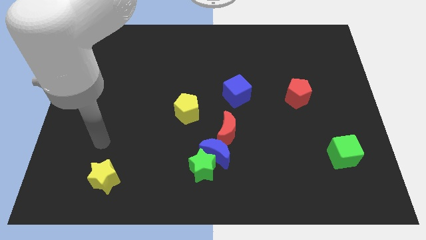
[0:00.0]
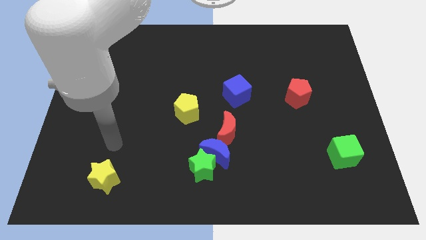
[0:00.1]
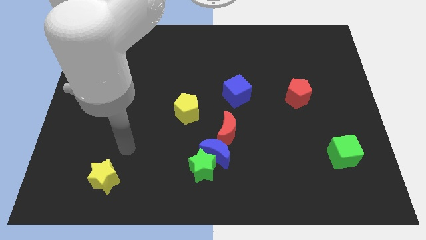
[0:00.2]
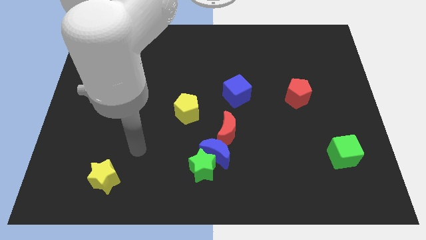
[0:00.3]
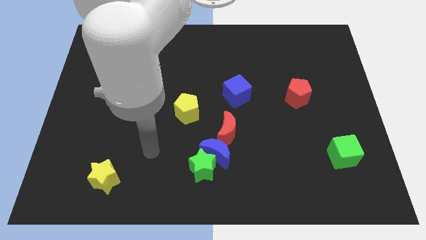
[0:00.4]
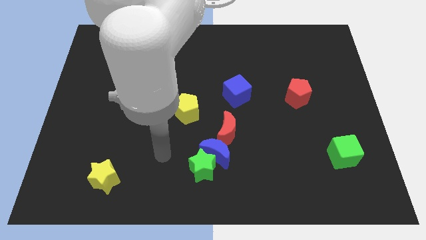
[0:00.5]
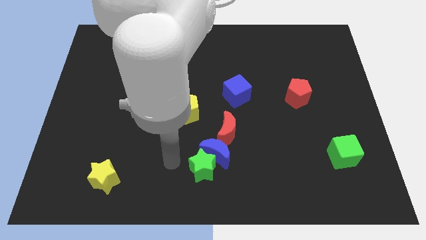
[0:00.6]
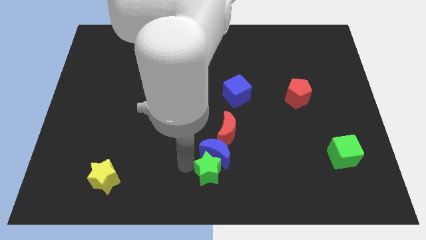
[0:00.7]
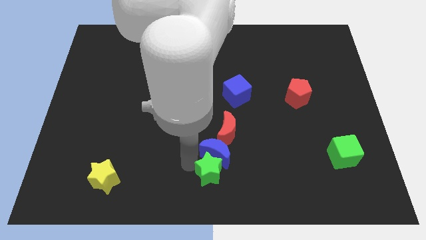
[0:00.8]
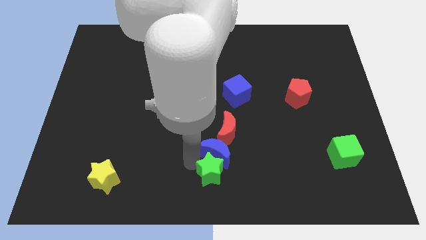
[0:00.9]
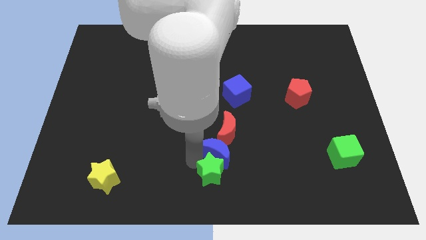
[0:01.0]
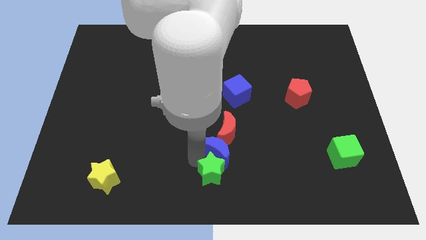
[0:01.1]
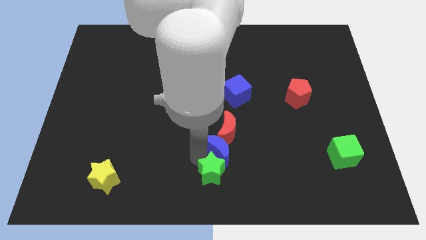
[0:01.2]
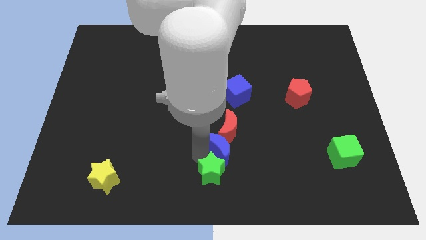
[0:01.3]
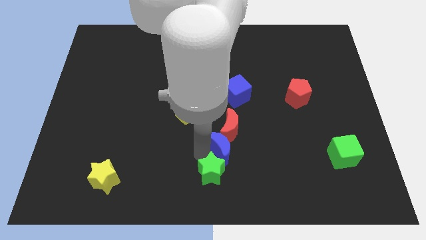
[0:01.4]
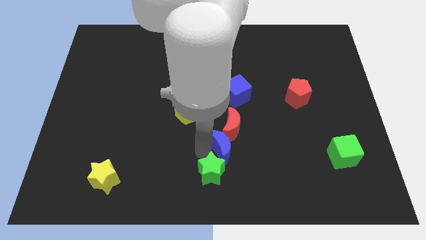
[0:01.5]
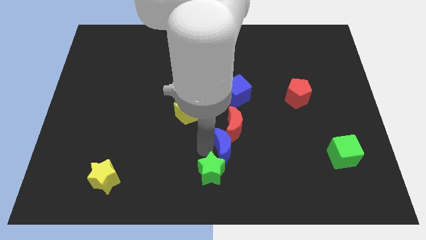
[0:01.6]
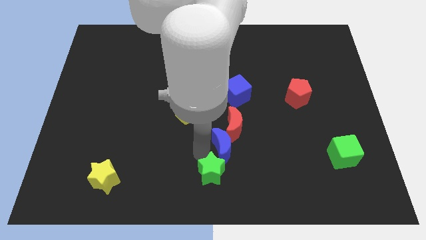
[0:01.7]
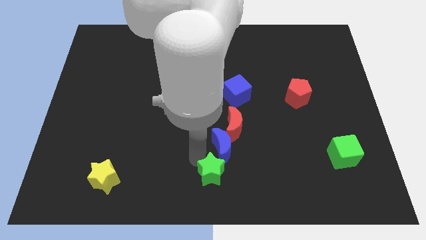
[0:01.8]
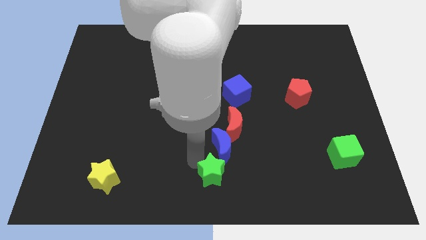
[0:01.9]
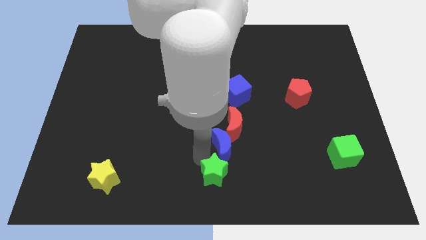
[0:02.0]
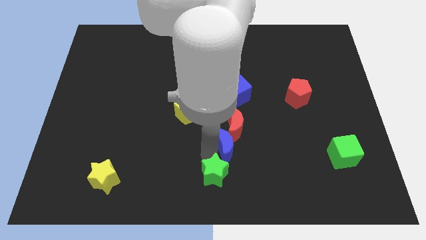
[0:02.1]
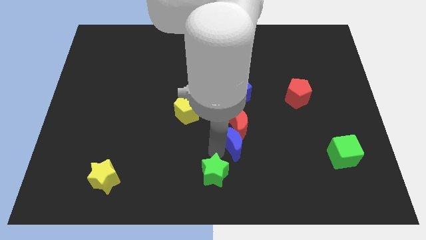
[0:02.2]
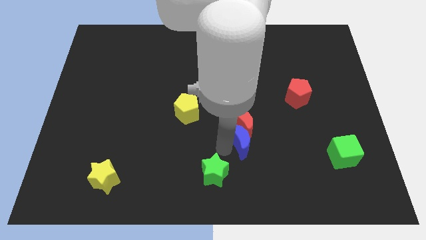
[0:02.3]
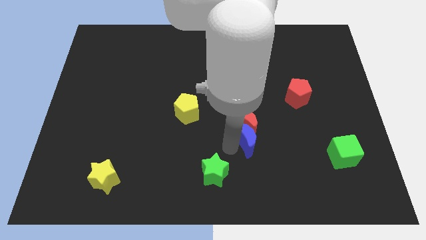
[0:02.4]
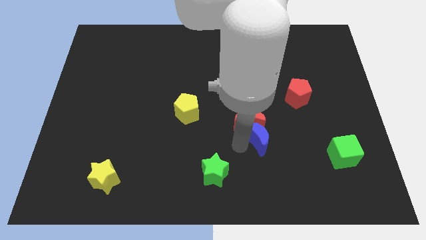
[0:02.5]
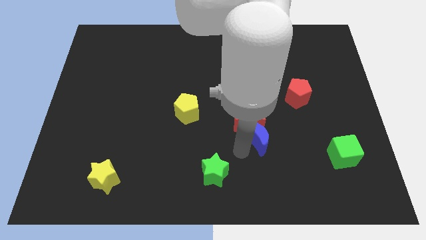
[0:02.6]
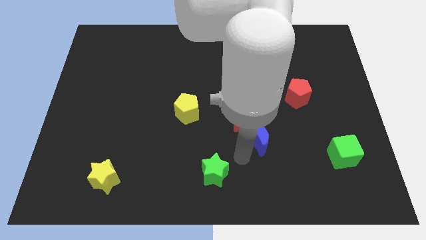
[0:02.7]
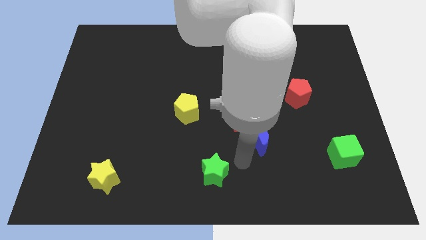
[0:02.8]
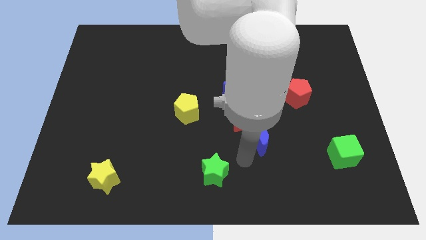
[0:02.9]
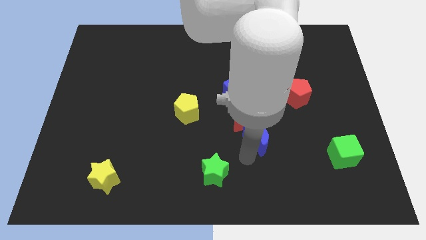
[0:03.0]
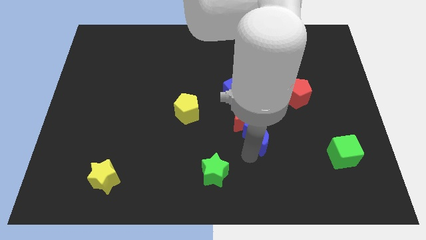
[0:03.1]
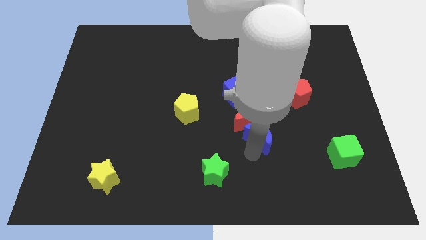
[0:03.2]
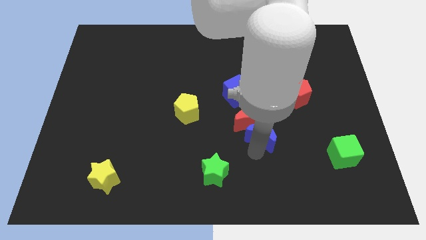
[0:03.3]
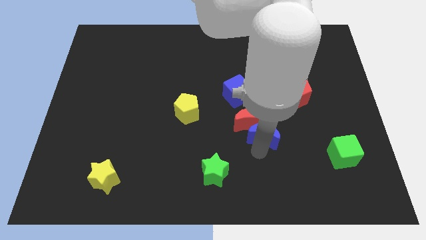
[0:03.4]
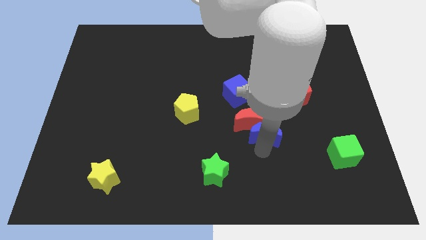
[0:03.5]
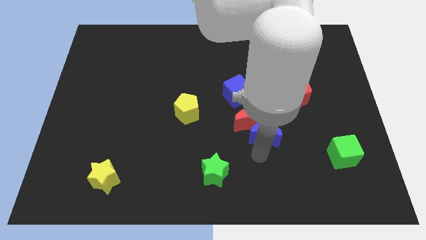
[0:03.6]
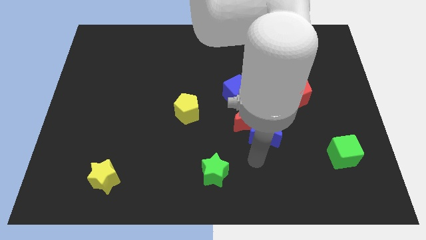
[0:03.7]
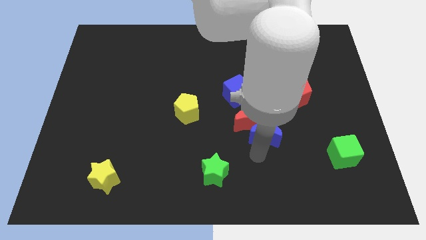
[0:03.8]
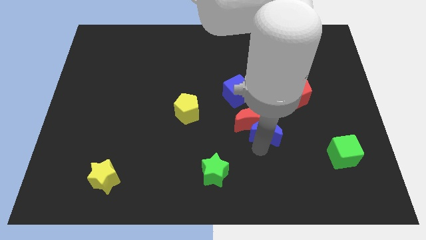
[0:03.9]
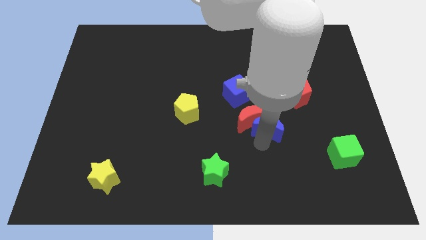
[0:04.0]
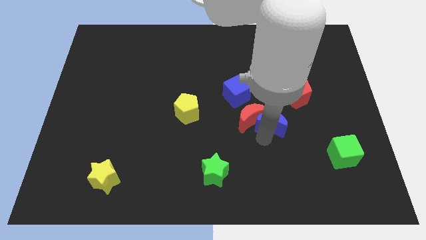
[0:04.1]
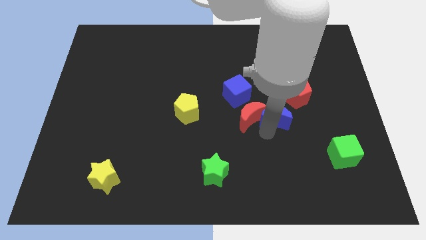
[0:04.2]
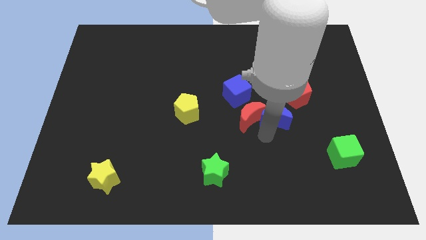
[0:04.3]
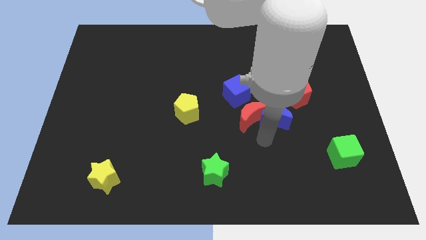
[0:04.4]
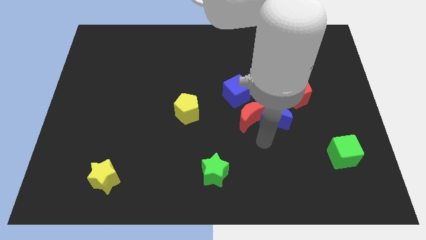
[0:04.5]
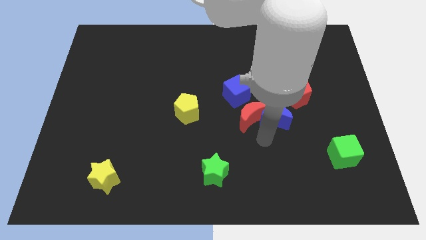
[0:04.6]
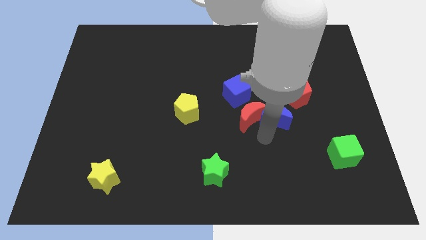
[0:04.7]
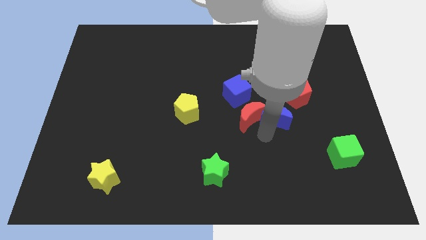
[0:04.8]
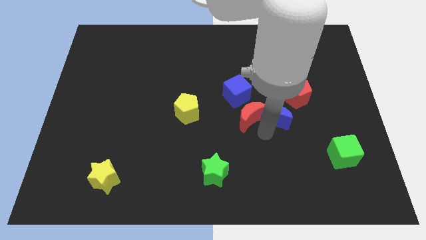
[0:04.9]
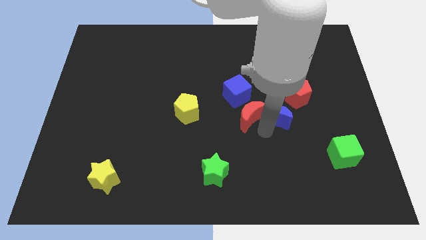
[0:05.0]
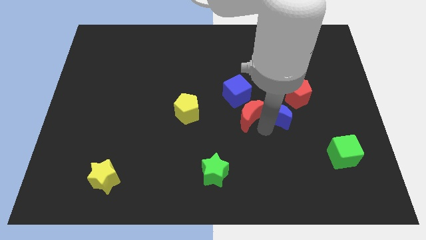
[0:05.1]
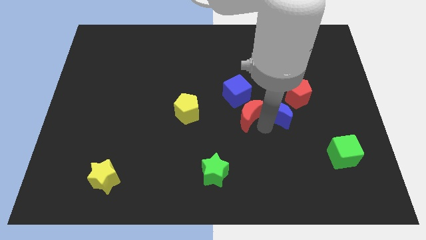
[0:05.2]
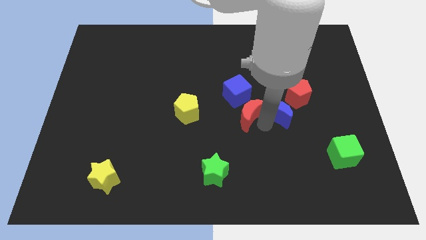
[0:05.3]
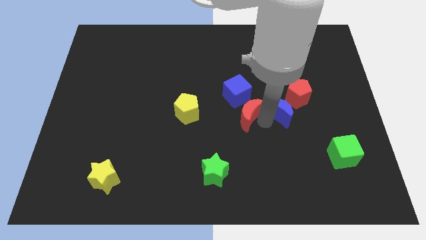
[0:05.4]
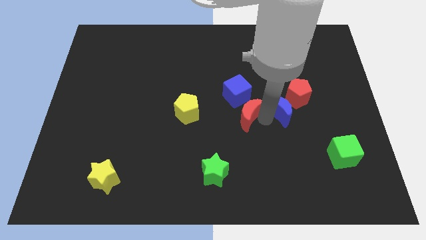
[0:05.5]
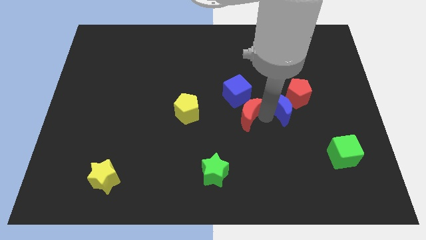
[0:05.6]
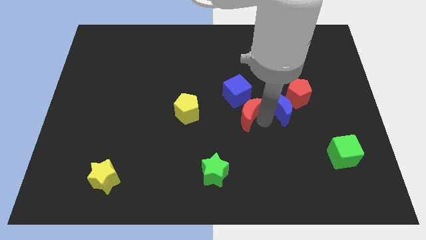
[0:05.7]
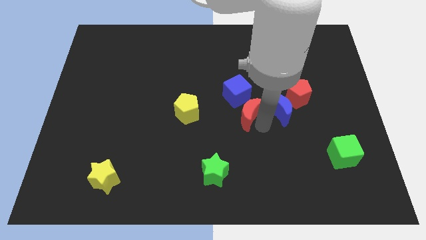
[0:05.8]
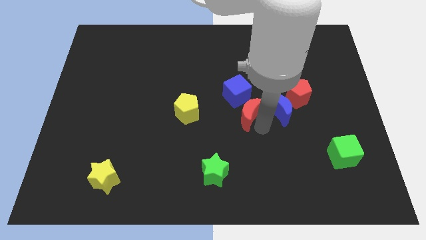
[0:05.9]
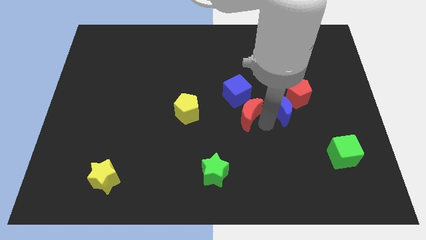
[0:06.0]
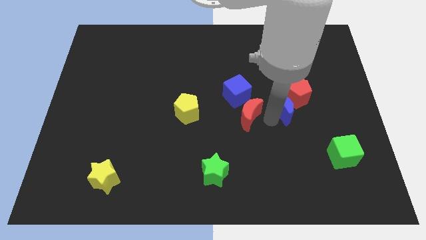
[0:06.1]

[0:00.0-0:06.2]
put the blue moon next to the red pentagon

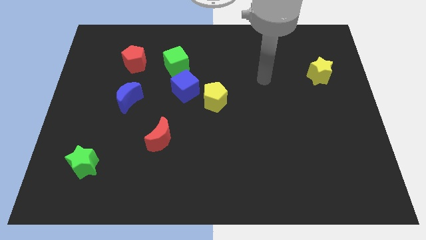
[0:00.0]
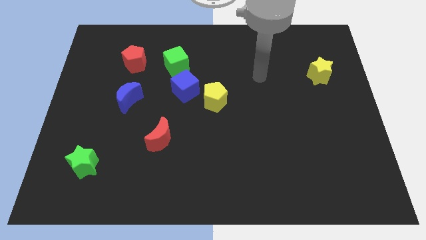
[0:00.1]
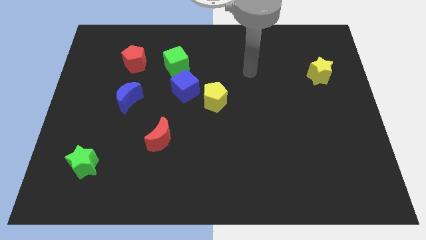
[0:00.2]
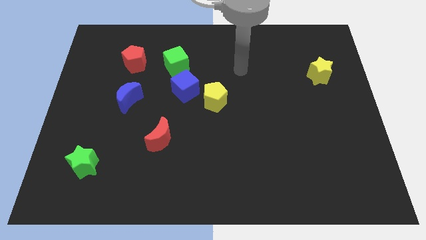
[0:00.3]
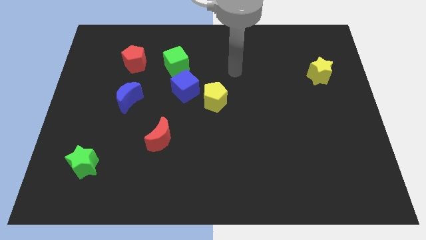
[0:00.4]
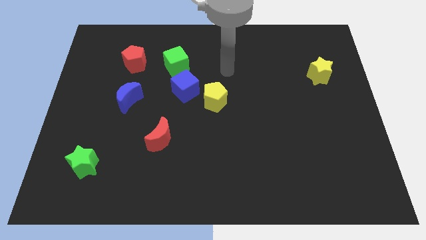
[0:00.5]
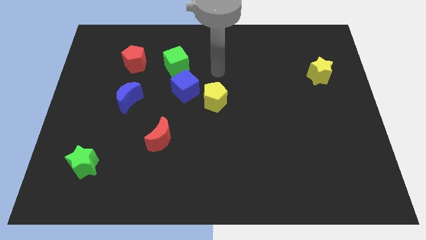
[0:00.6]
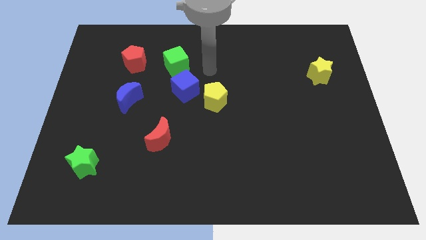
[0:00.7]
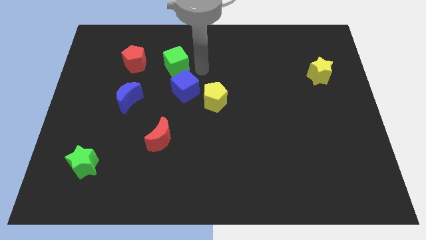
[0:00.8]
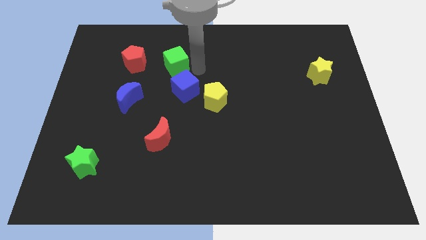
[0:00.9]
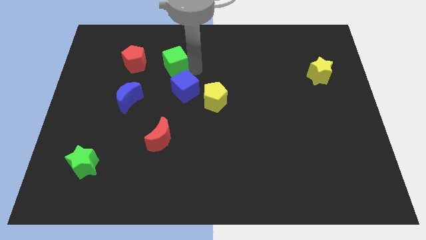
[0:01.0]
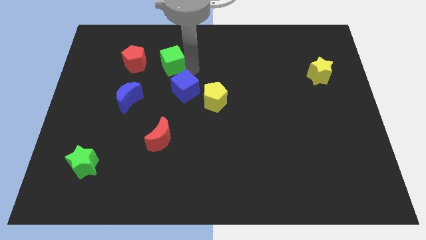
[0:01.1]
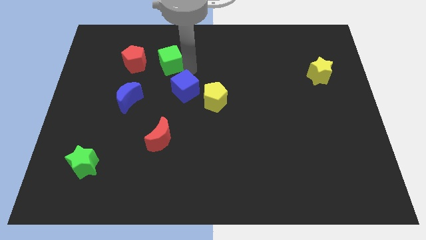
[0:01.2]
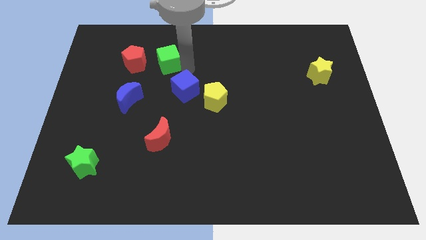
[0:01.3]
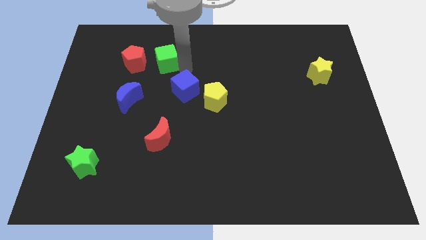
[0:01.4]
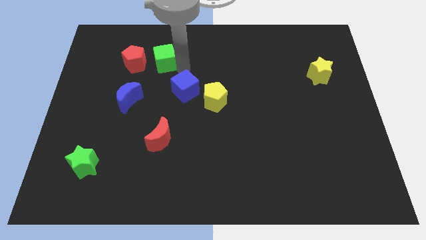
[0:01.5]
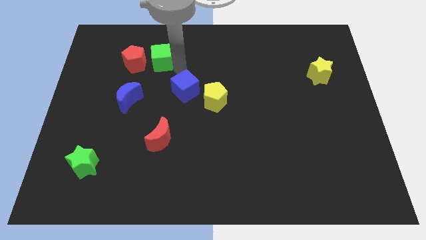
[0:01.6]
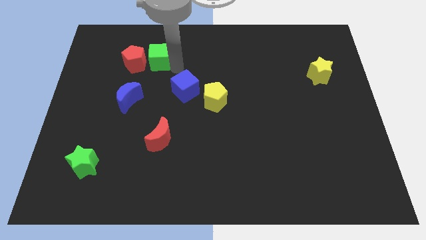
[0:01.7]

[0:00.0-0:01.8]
put the green cube close to the red pentagon
